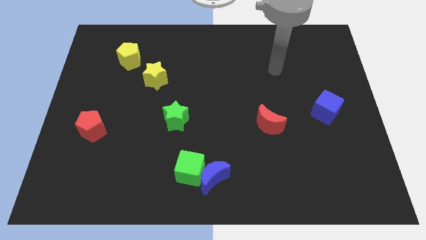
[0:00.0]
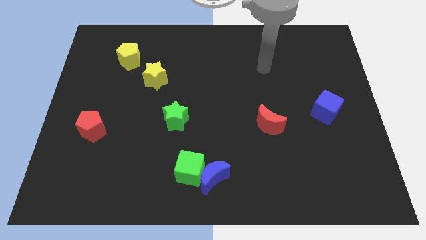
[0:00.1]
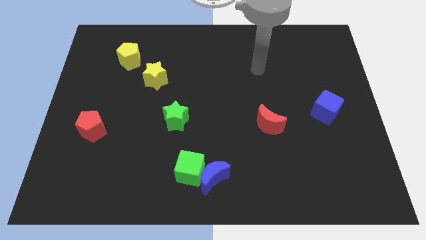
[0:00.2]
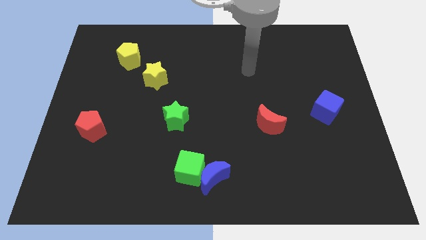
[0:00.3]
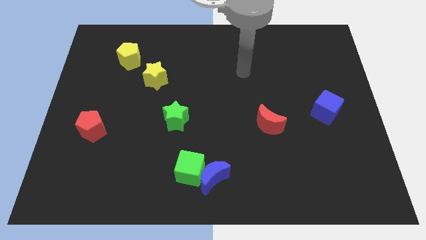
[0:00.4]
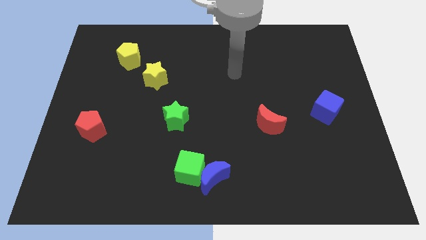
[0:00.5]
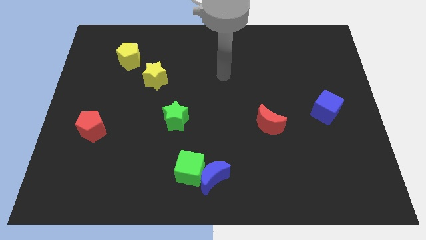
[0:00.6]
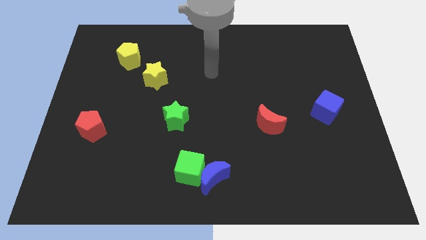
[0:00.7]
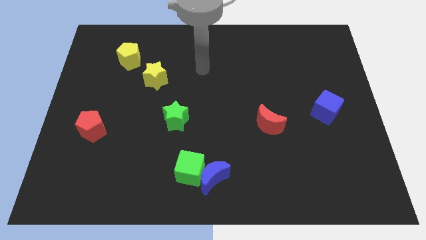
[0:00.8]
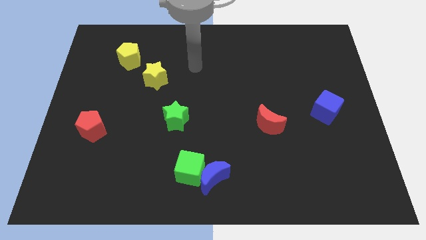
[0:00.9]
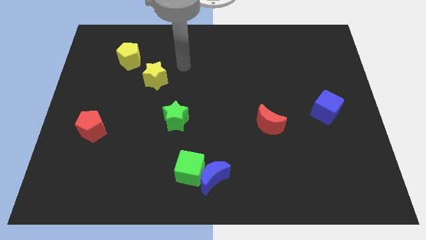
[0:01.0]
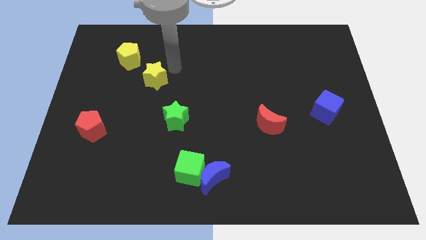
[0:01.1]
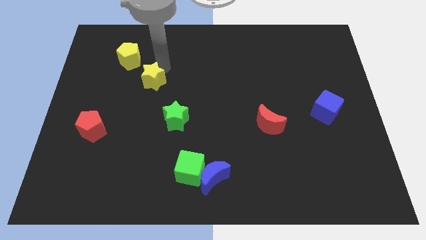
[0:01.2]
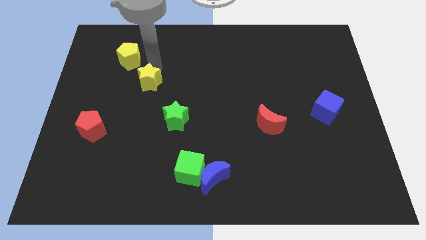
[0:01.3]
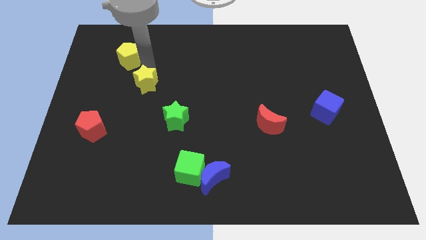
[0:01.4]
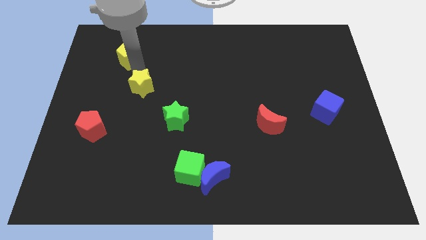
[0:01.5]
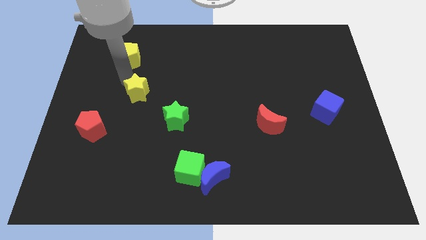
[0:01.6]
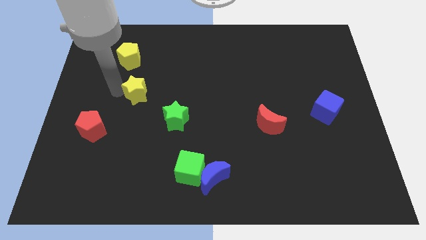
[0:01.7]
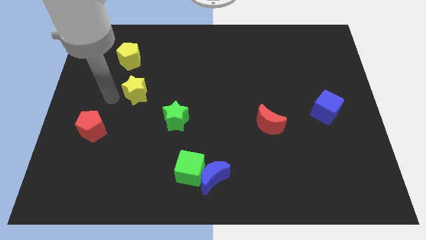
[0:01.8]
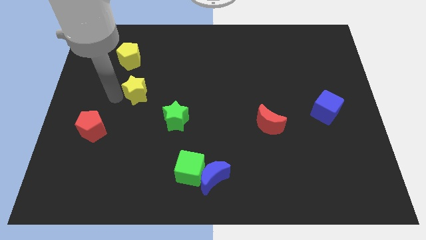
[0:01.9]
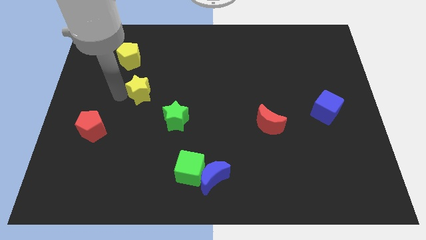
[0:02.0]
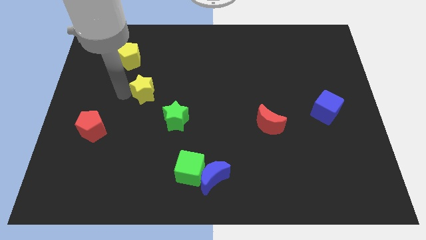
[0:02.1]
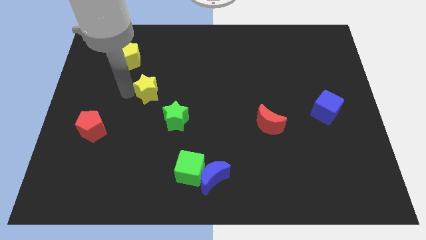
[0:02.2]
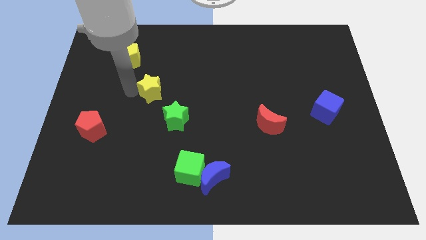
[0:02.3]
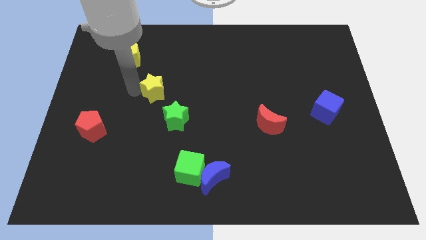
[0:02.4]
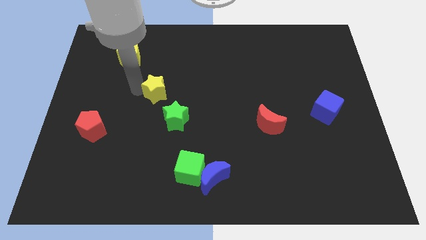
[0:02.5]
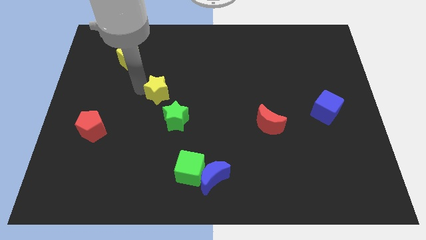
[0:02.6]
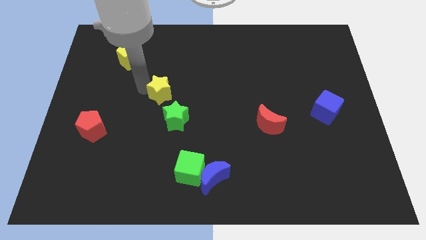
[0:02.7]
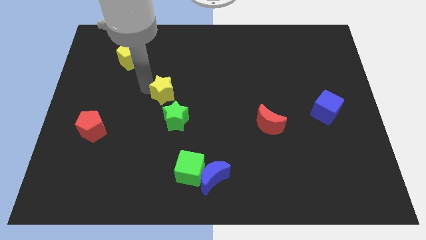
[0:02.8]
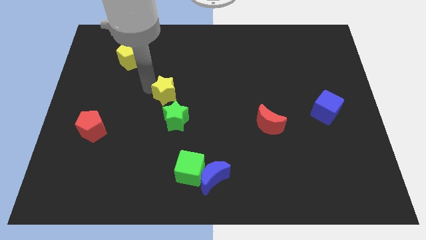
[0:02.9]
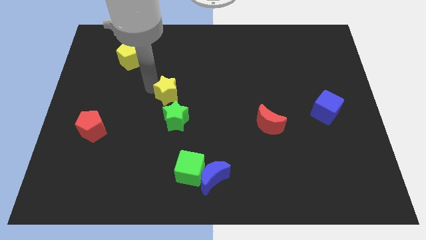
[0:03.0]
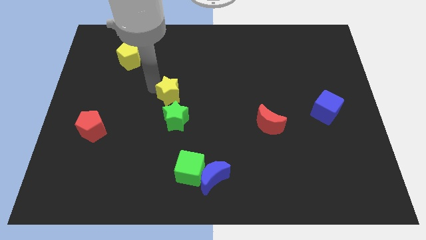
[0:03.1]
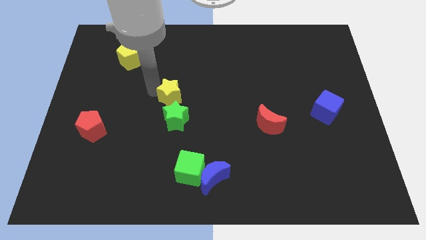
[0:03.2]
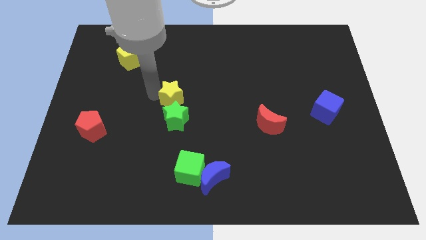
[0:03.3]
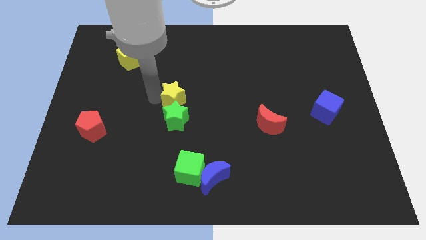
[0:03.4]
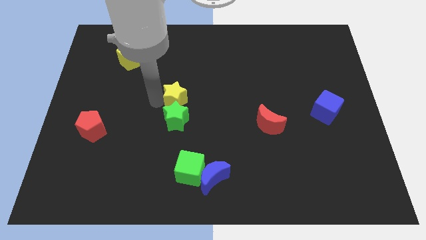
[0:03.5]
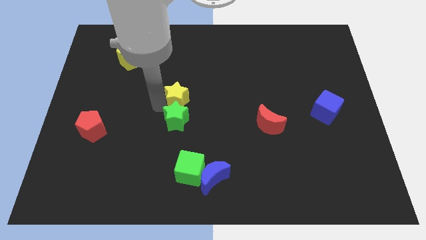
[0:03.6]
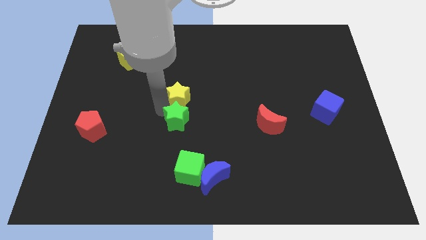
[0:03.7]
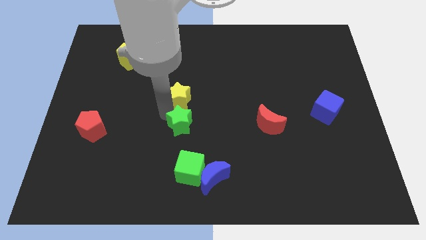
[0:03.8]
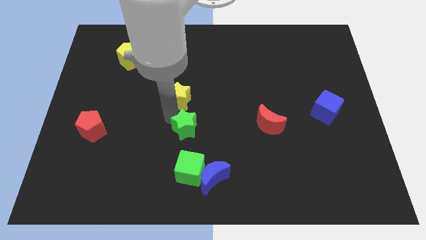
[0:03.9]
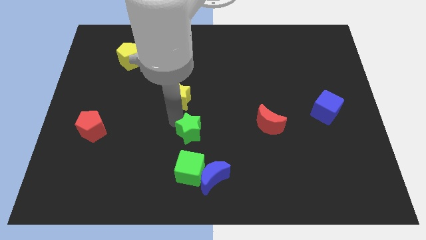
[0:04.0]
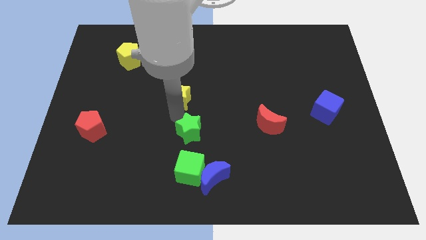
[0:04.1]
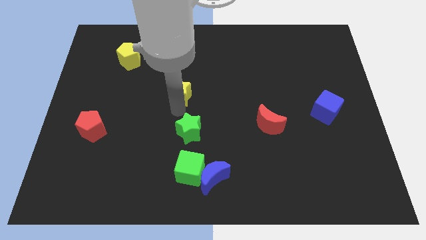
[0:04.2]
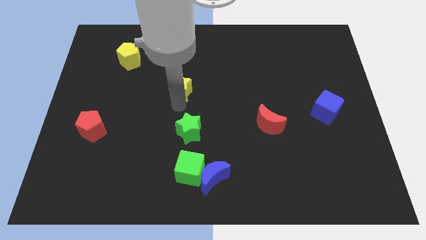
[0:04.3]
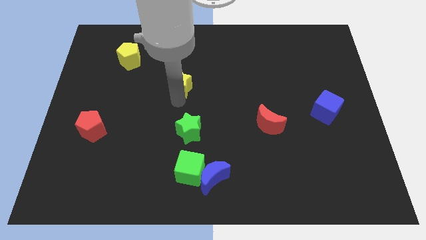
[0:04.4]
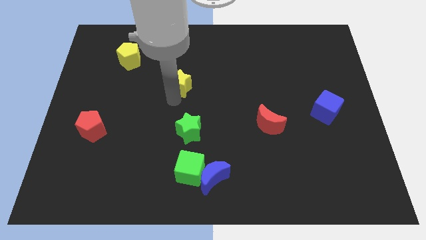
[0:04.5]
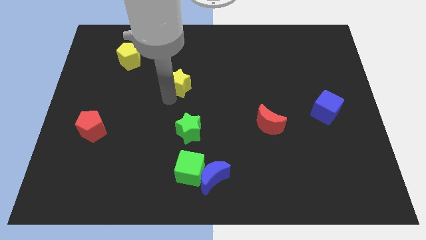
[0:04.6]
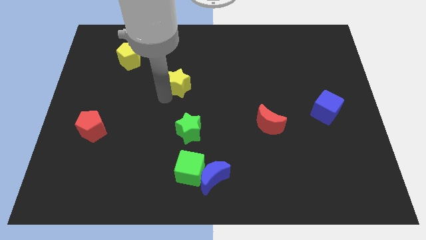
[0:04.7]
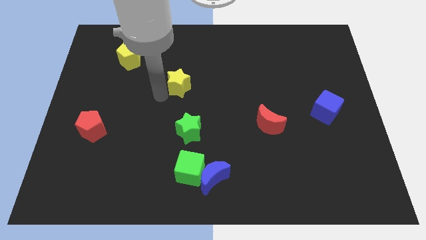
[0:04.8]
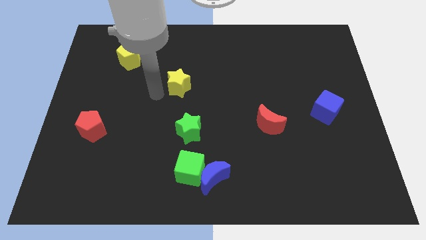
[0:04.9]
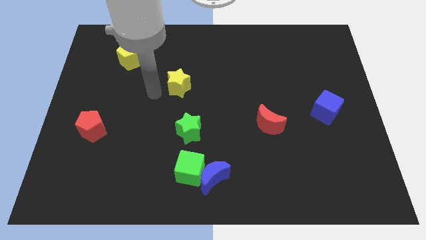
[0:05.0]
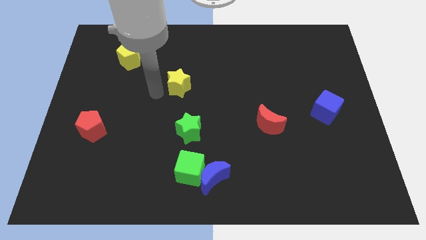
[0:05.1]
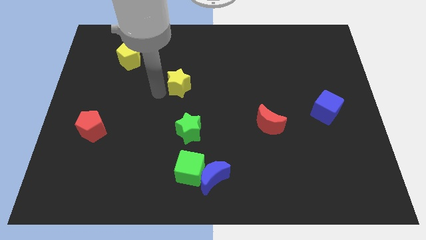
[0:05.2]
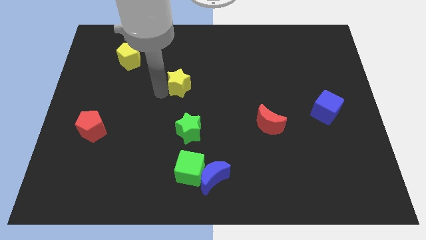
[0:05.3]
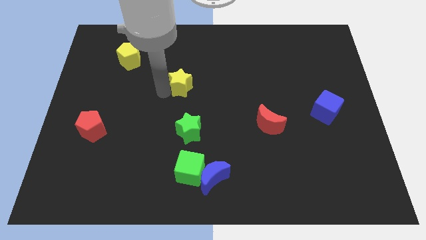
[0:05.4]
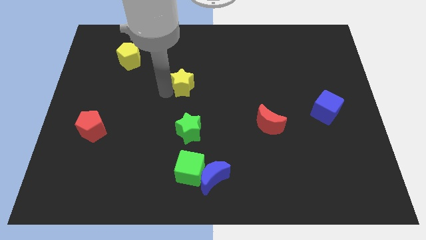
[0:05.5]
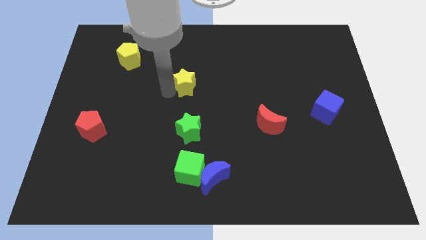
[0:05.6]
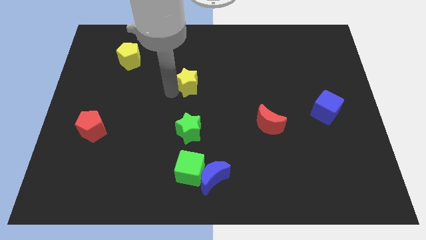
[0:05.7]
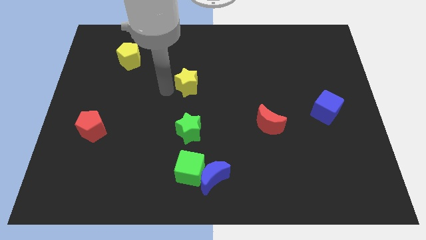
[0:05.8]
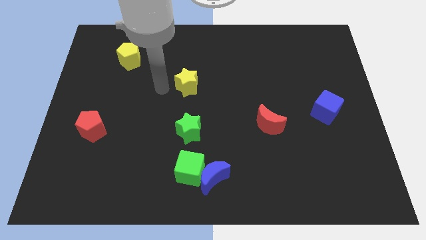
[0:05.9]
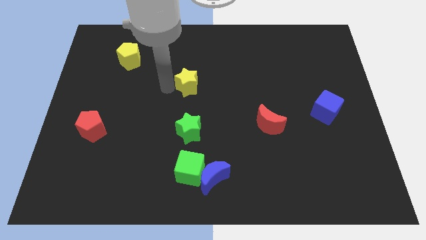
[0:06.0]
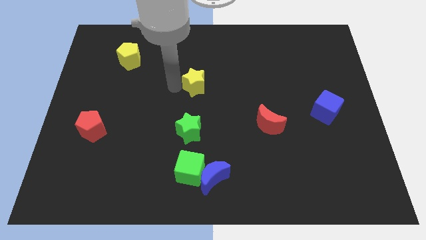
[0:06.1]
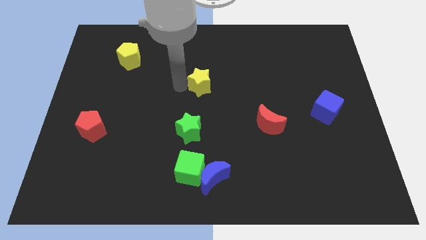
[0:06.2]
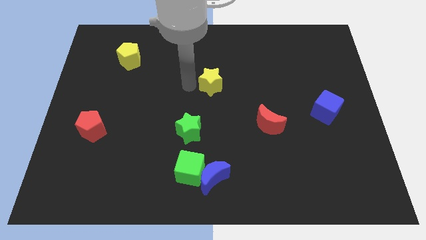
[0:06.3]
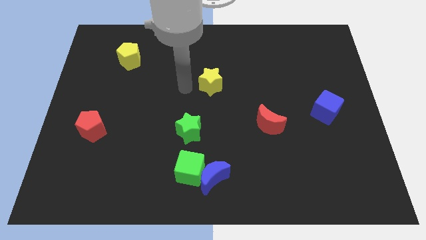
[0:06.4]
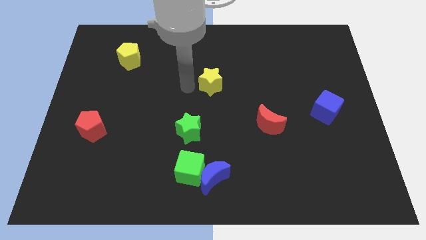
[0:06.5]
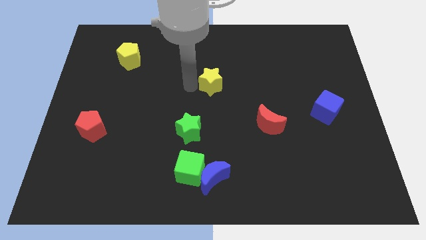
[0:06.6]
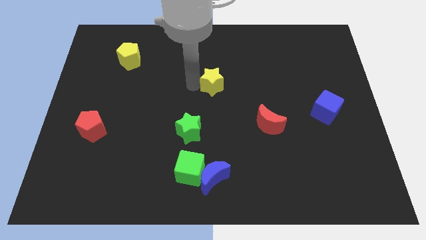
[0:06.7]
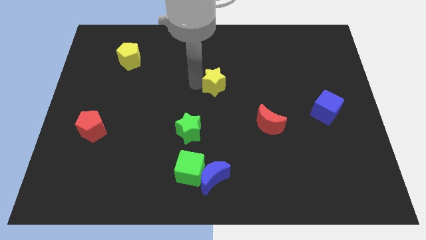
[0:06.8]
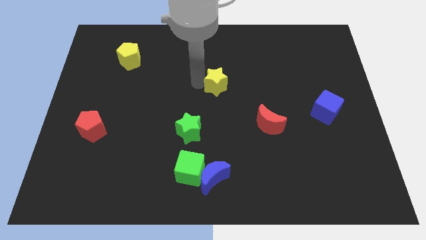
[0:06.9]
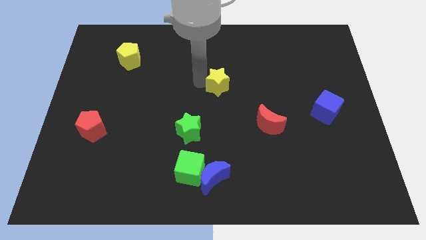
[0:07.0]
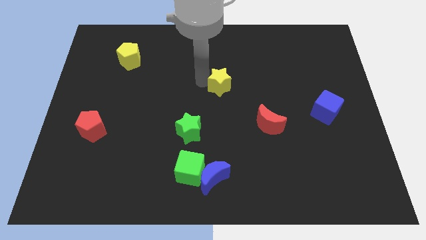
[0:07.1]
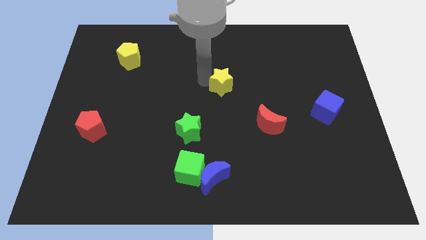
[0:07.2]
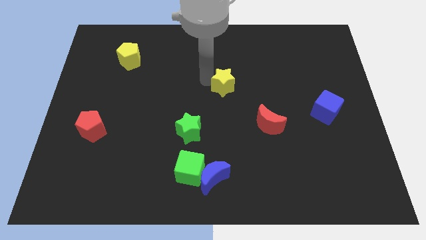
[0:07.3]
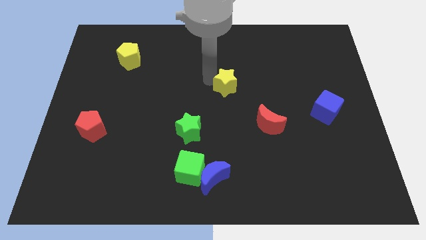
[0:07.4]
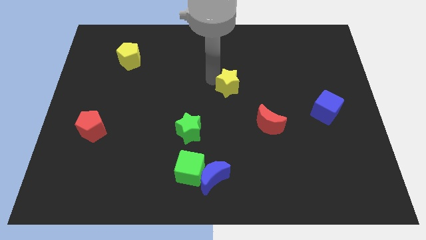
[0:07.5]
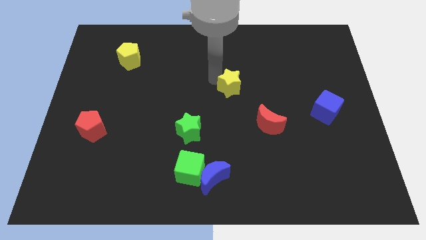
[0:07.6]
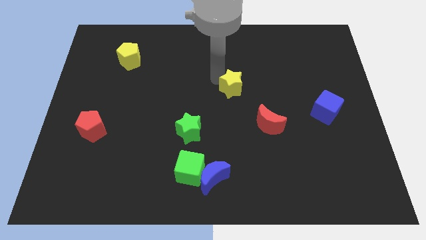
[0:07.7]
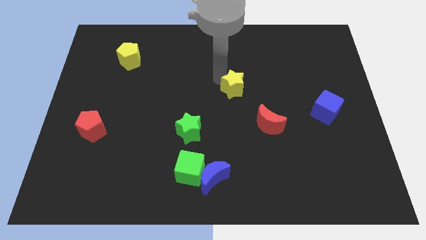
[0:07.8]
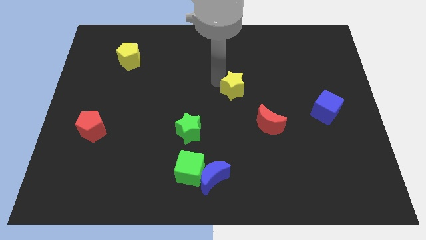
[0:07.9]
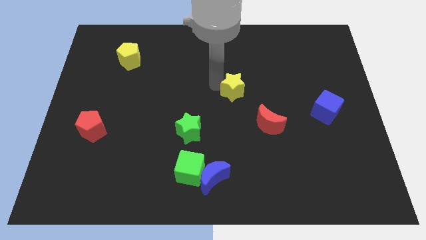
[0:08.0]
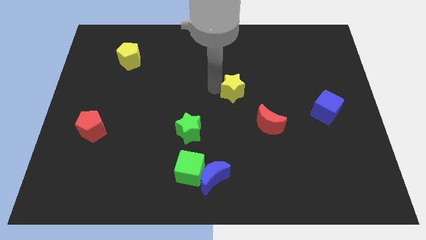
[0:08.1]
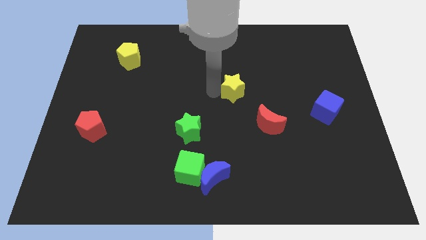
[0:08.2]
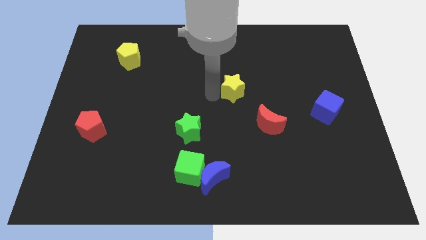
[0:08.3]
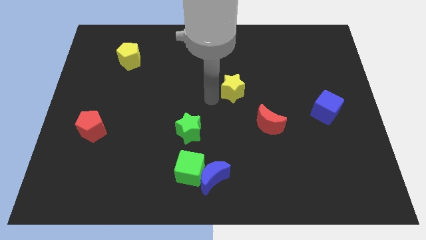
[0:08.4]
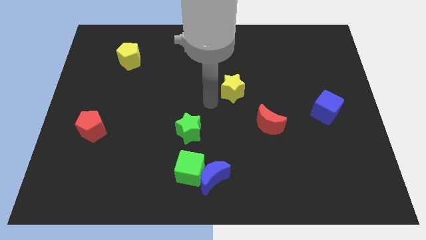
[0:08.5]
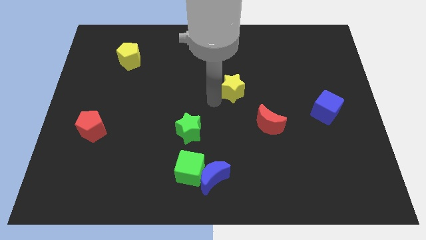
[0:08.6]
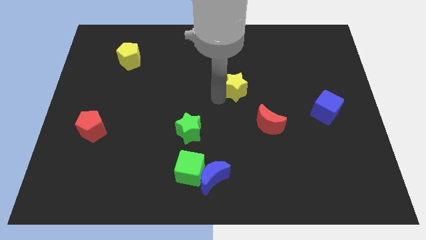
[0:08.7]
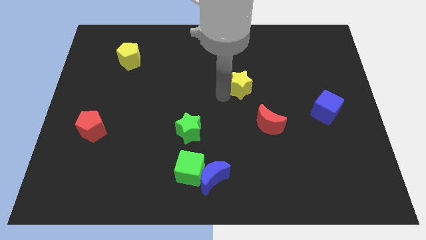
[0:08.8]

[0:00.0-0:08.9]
move the yellow star to the right
